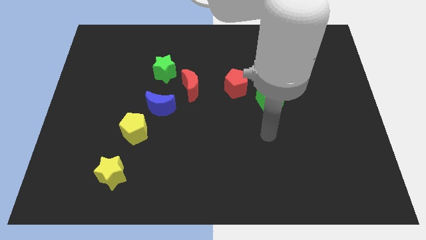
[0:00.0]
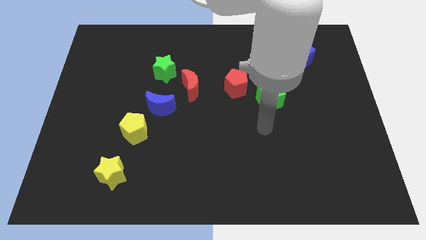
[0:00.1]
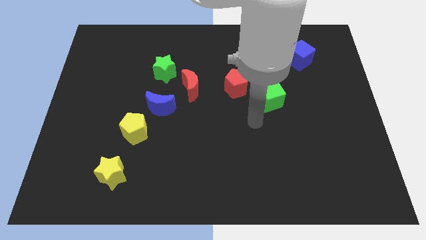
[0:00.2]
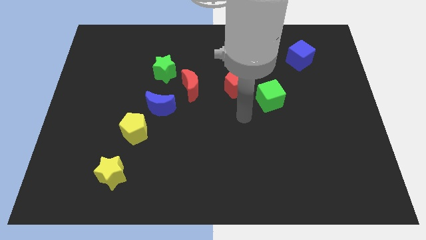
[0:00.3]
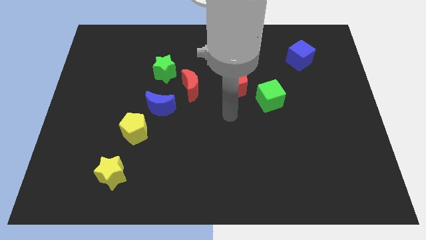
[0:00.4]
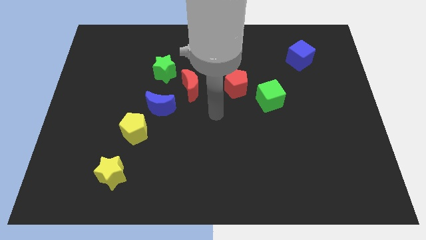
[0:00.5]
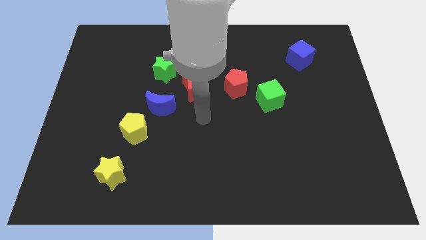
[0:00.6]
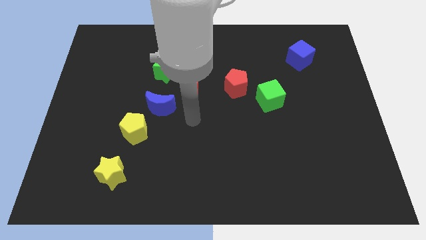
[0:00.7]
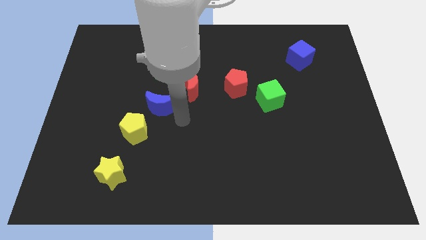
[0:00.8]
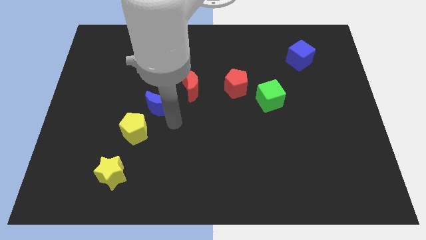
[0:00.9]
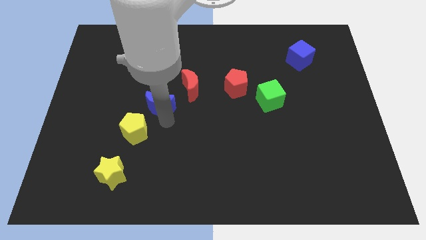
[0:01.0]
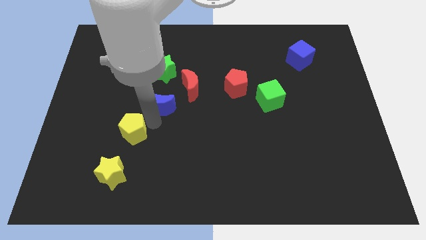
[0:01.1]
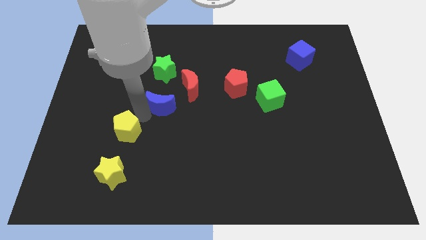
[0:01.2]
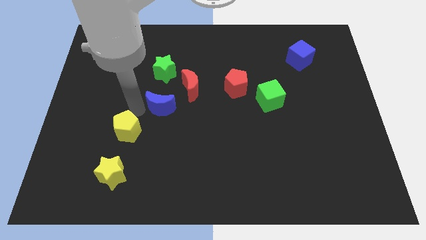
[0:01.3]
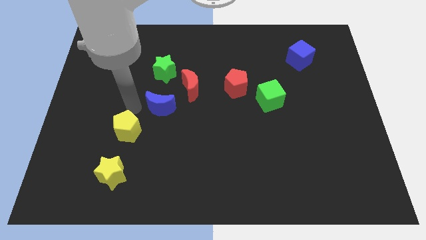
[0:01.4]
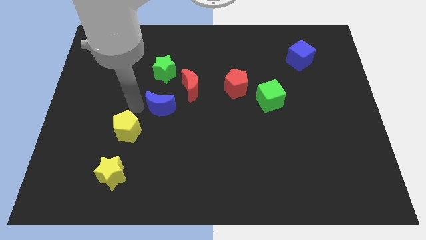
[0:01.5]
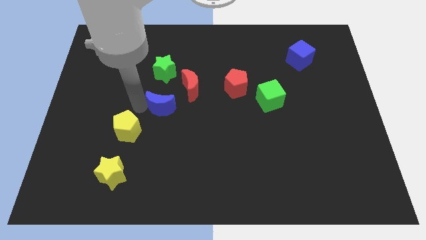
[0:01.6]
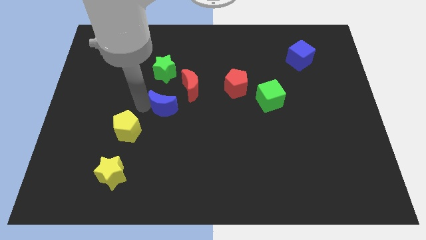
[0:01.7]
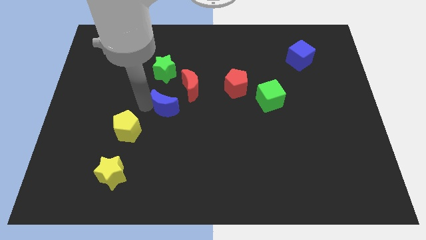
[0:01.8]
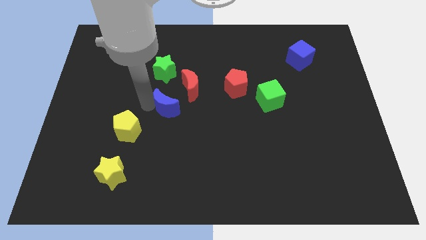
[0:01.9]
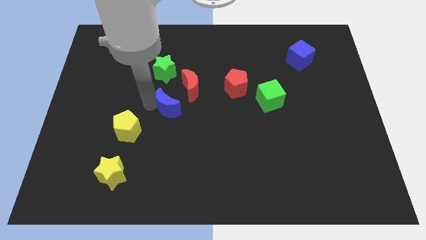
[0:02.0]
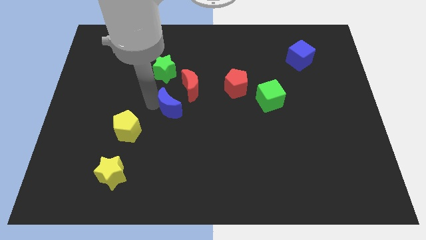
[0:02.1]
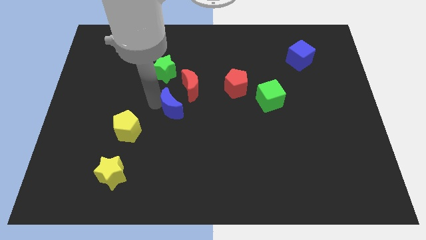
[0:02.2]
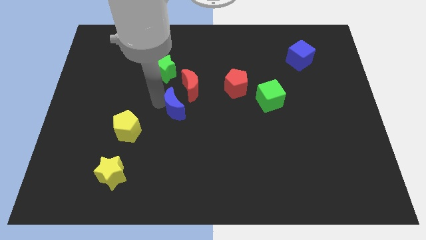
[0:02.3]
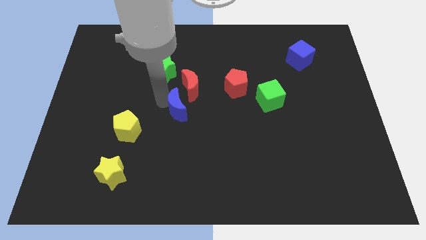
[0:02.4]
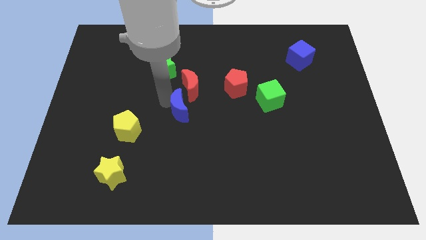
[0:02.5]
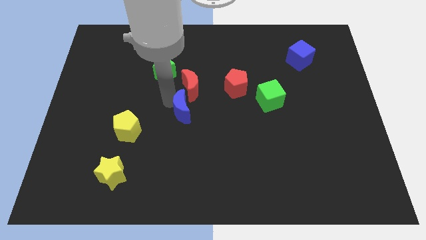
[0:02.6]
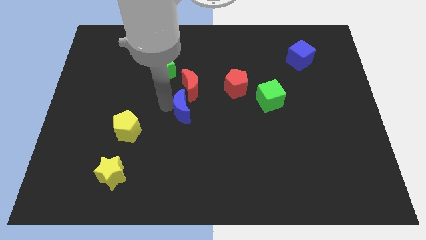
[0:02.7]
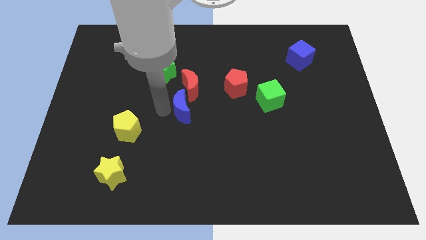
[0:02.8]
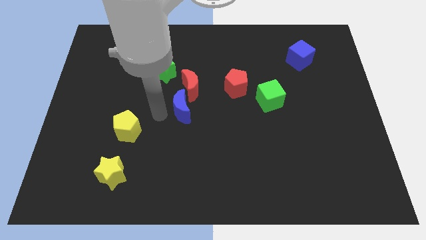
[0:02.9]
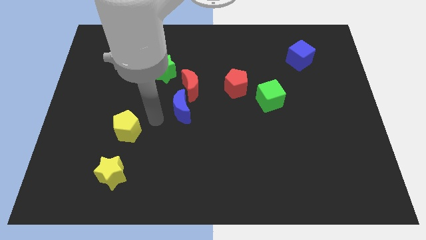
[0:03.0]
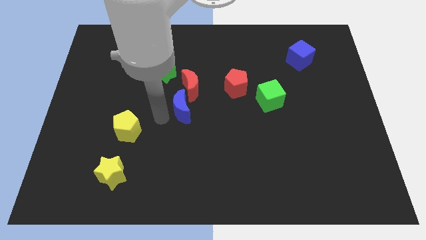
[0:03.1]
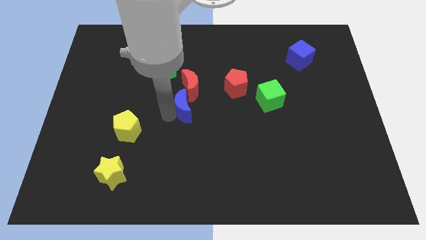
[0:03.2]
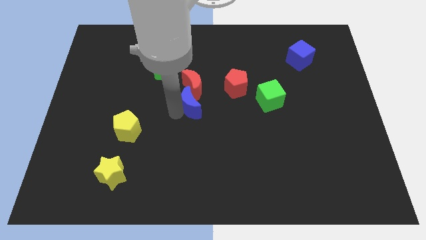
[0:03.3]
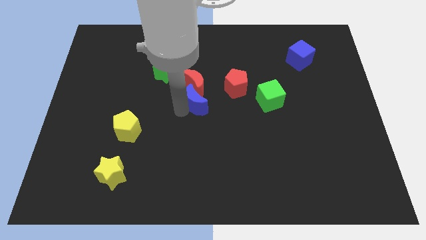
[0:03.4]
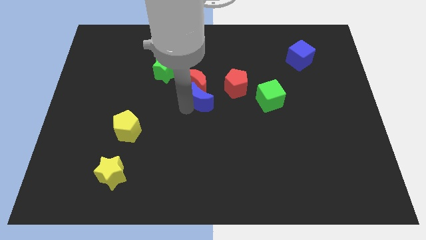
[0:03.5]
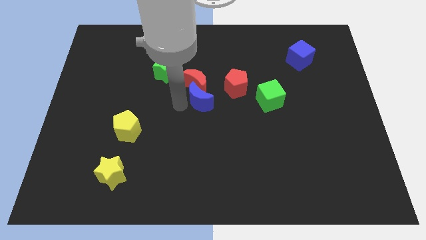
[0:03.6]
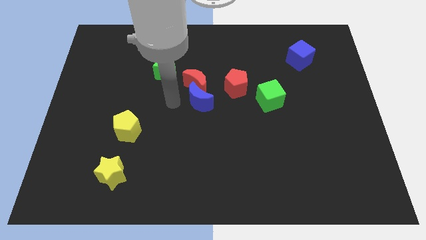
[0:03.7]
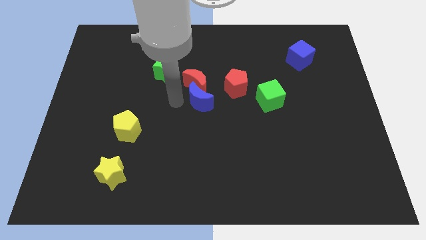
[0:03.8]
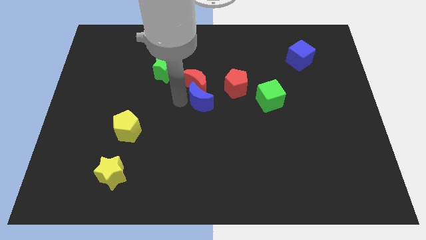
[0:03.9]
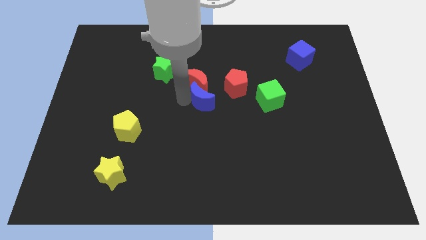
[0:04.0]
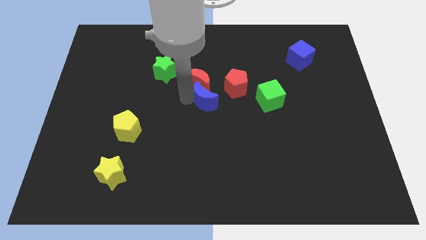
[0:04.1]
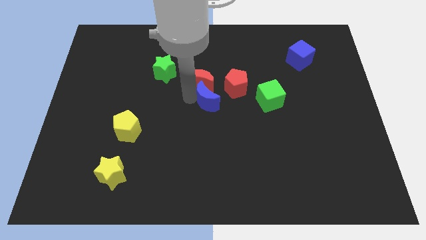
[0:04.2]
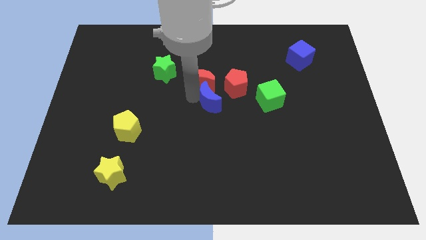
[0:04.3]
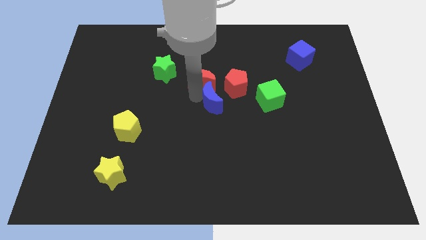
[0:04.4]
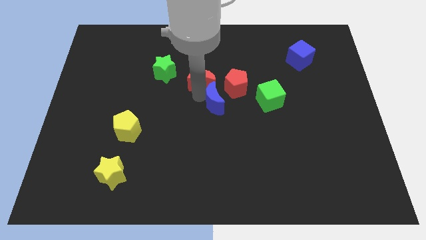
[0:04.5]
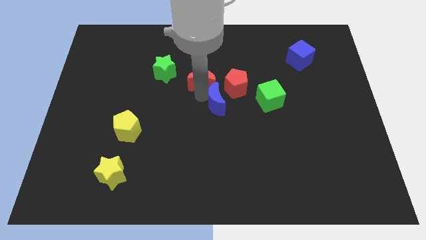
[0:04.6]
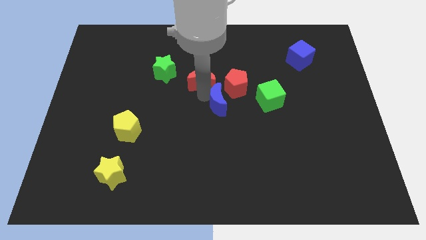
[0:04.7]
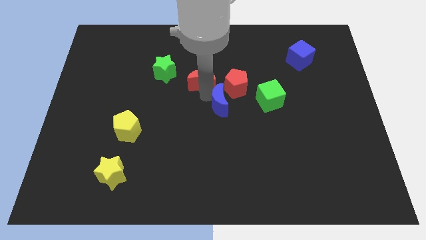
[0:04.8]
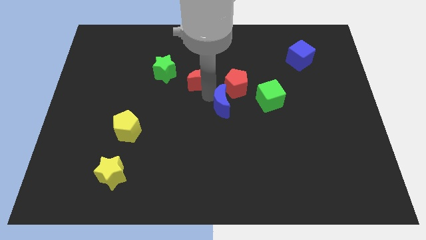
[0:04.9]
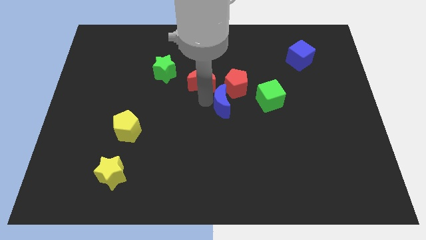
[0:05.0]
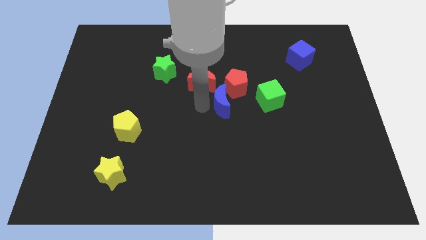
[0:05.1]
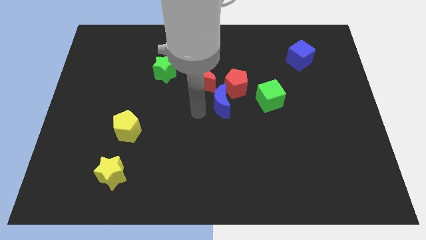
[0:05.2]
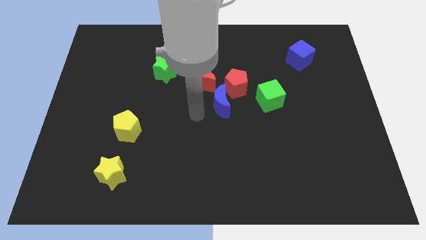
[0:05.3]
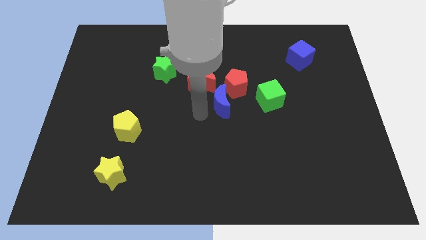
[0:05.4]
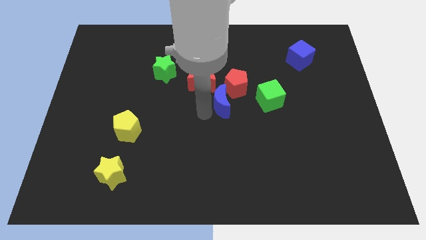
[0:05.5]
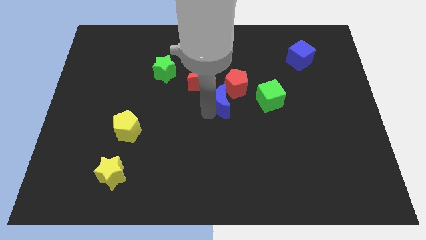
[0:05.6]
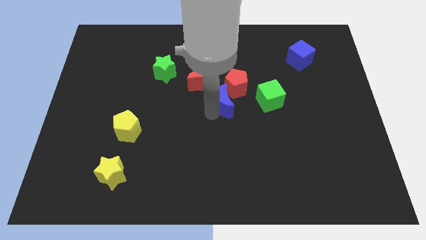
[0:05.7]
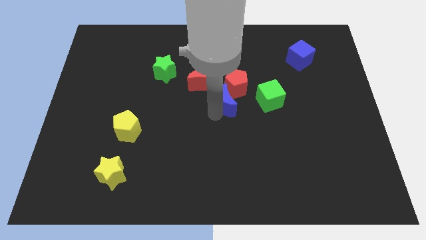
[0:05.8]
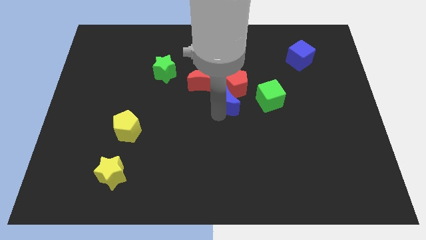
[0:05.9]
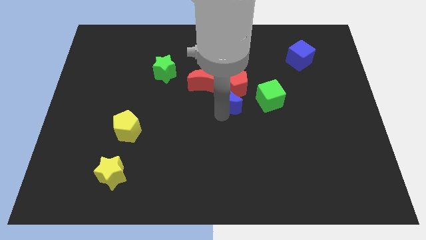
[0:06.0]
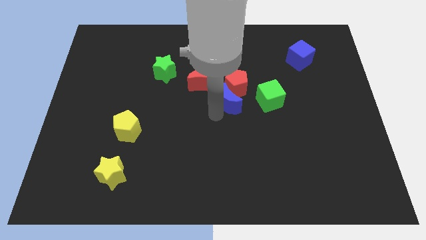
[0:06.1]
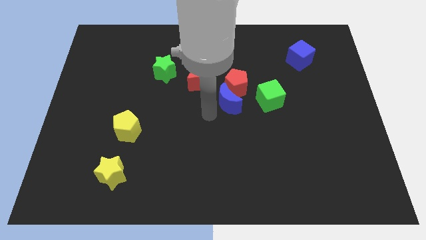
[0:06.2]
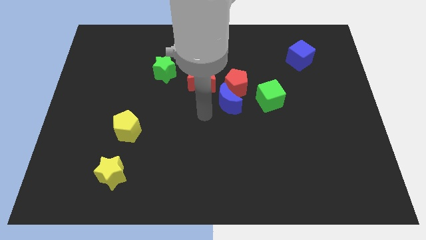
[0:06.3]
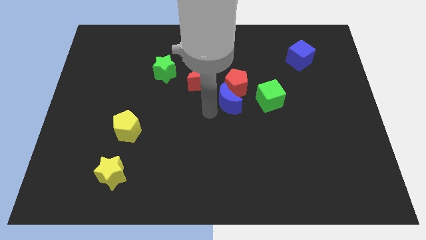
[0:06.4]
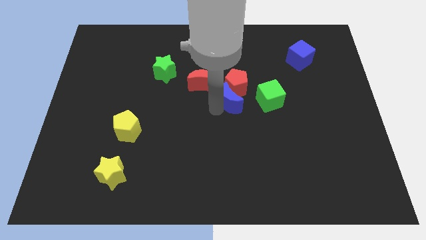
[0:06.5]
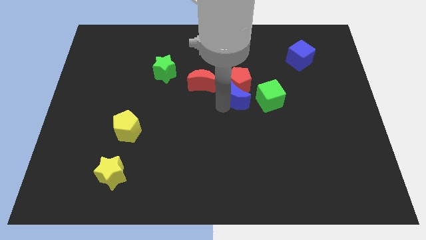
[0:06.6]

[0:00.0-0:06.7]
slide the blue moon to the right of the red moon

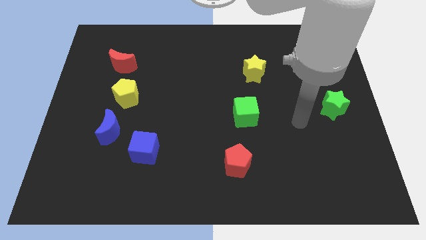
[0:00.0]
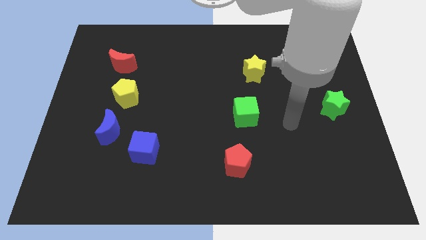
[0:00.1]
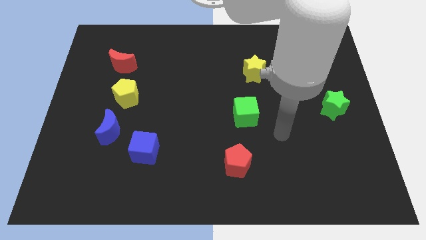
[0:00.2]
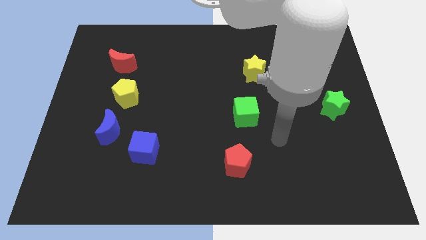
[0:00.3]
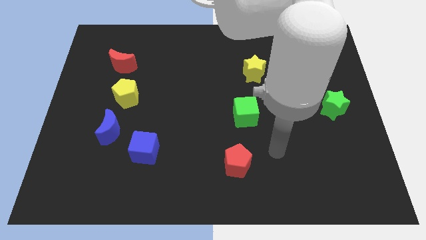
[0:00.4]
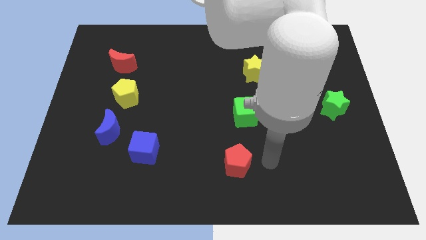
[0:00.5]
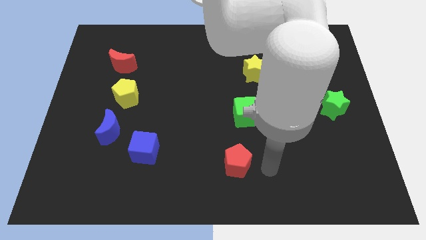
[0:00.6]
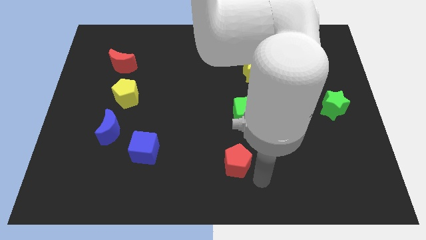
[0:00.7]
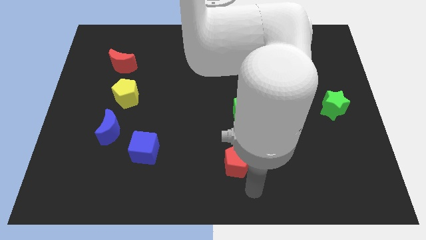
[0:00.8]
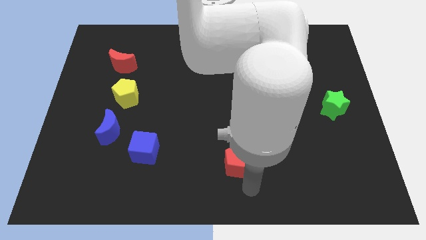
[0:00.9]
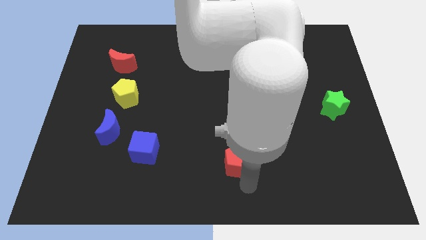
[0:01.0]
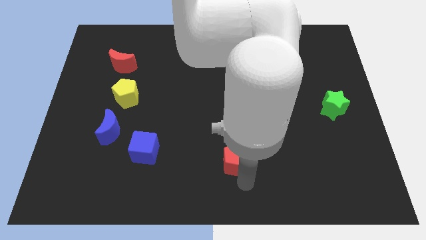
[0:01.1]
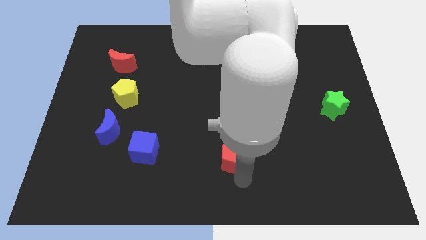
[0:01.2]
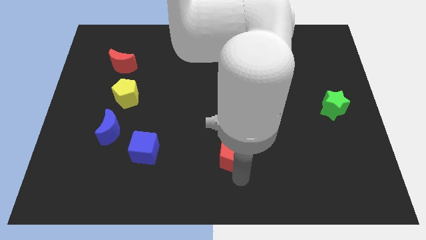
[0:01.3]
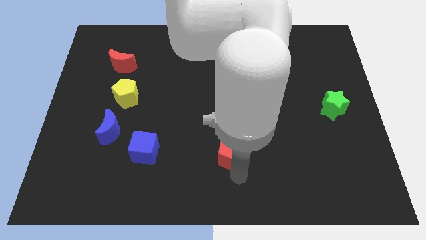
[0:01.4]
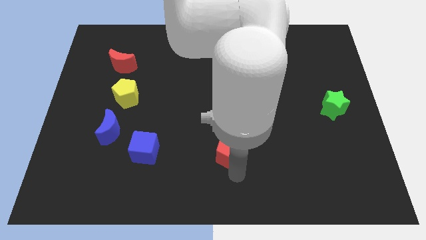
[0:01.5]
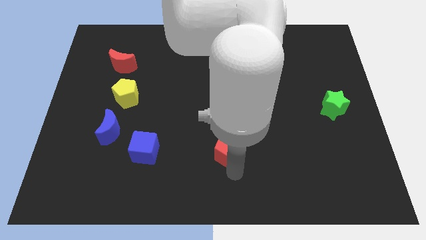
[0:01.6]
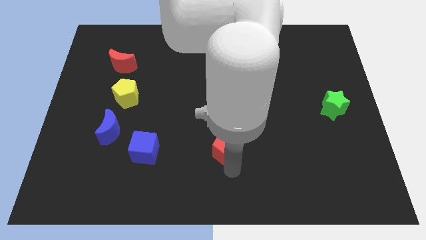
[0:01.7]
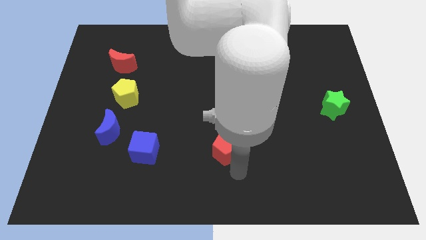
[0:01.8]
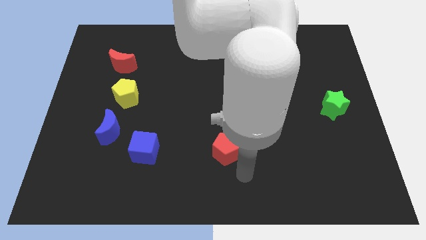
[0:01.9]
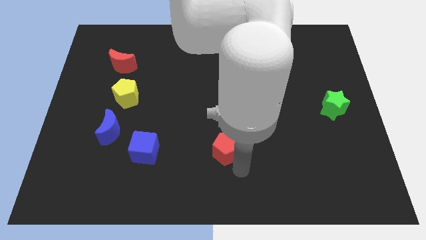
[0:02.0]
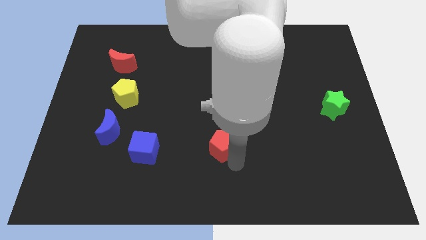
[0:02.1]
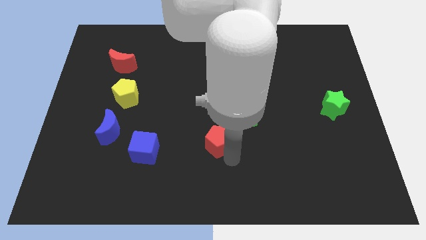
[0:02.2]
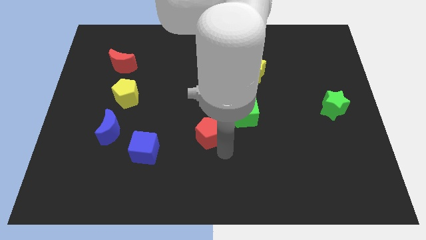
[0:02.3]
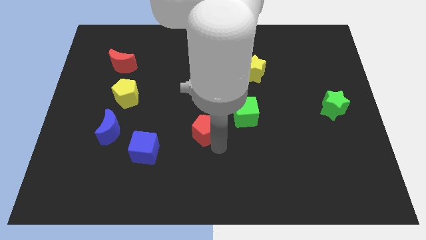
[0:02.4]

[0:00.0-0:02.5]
slide the red pentagon left of the green cube
